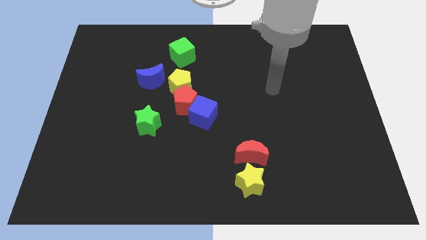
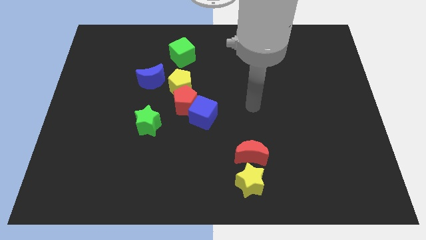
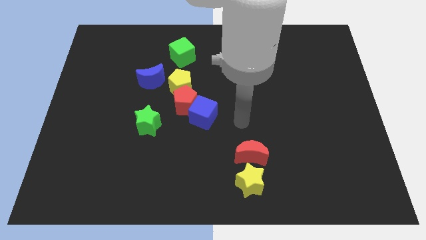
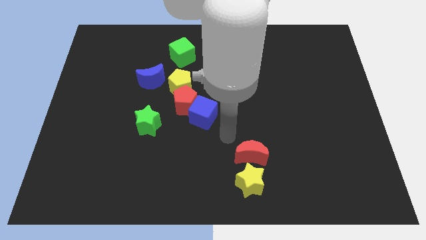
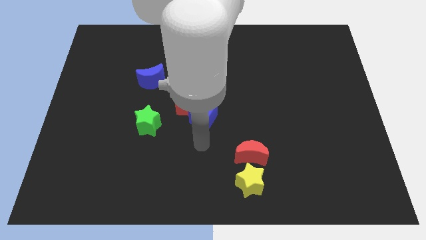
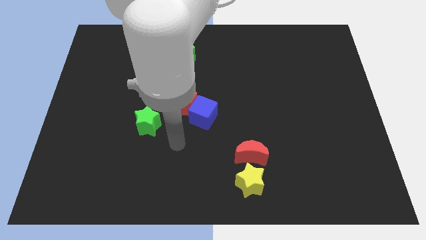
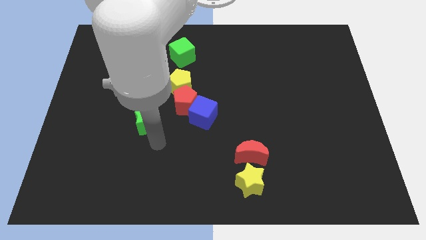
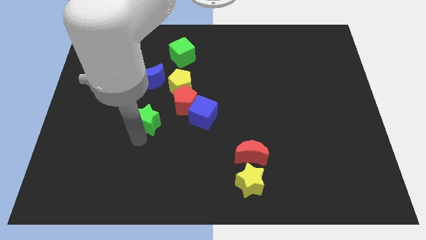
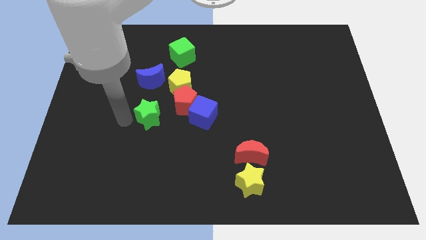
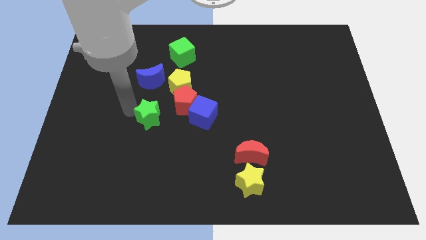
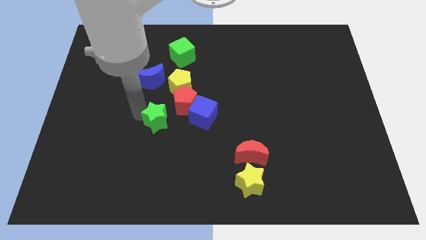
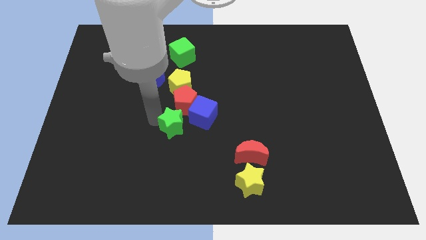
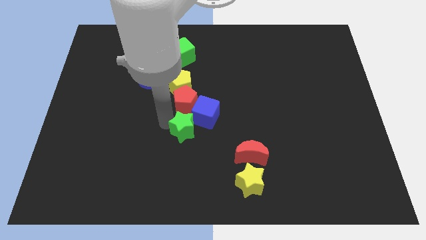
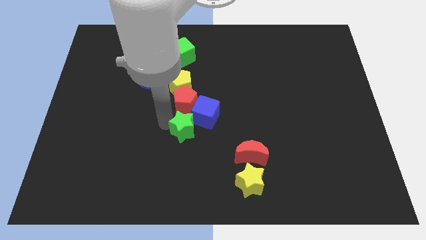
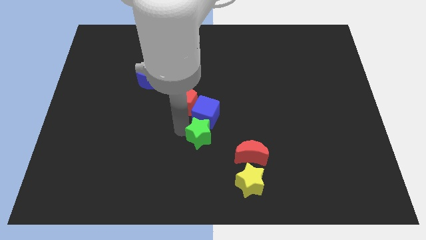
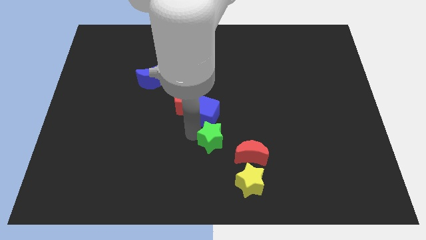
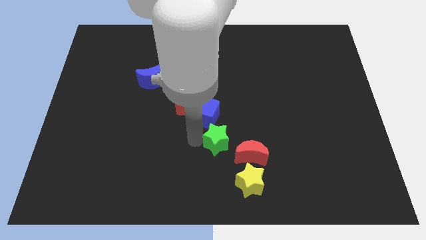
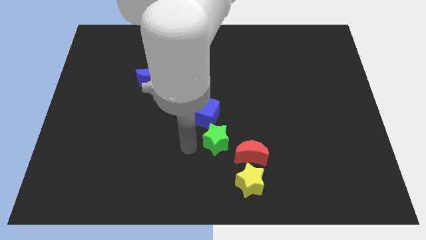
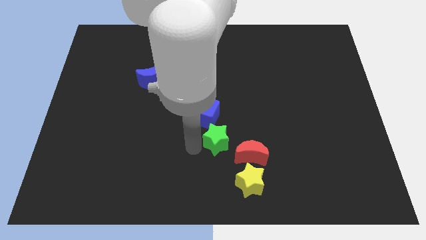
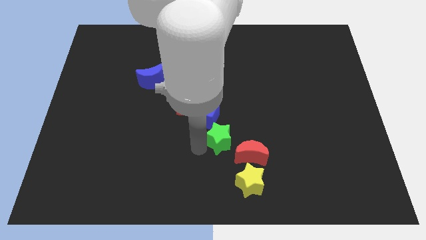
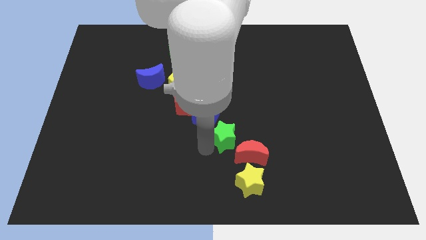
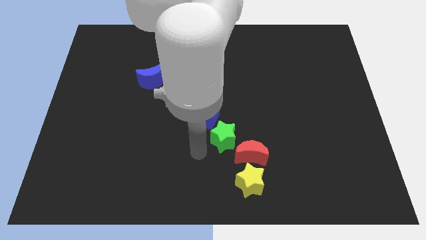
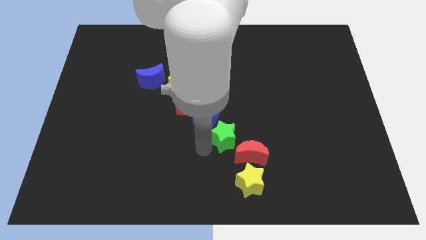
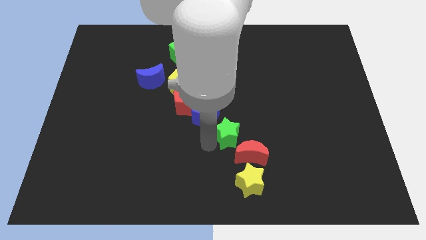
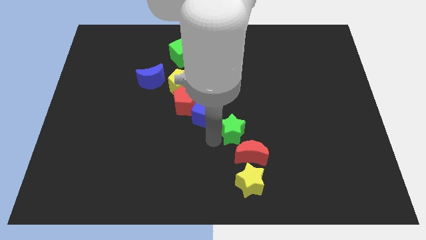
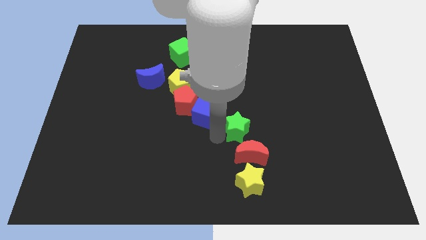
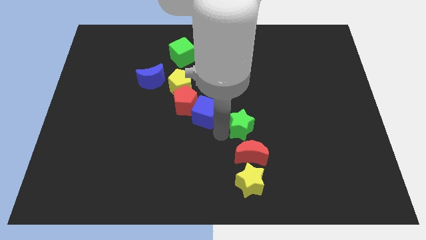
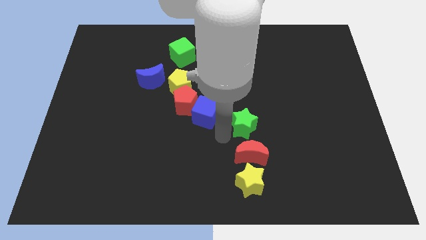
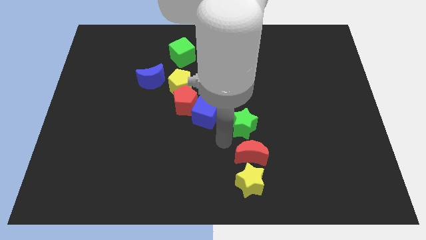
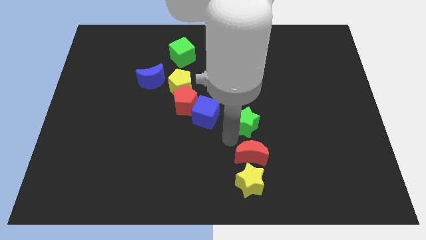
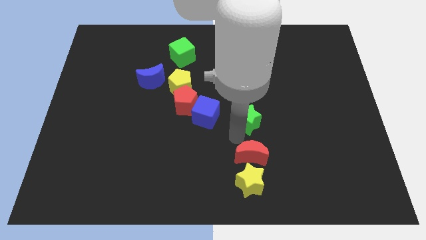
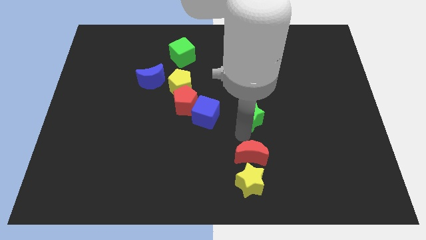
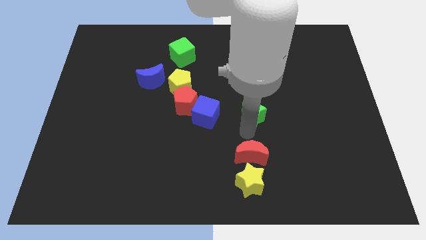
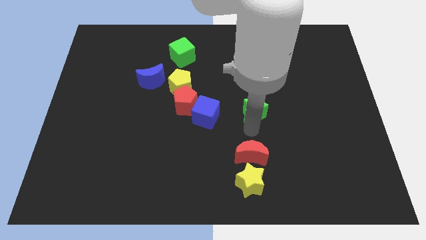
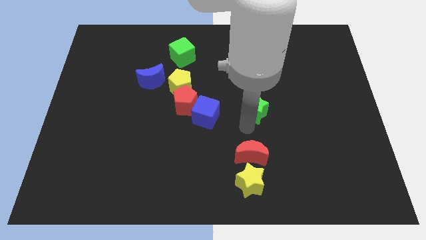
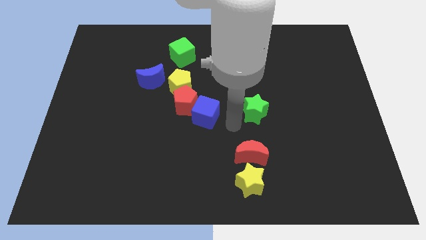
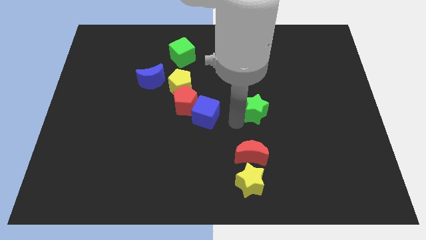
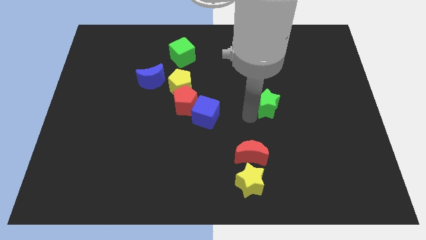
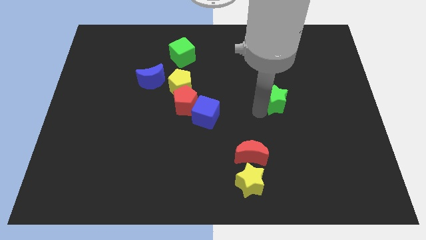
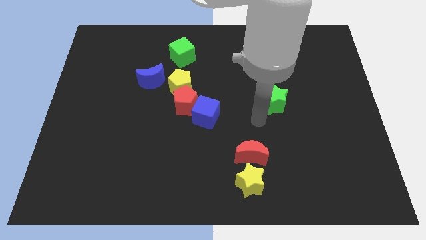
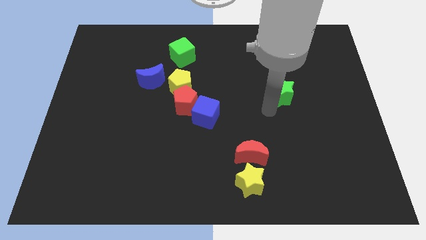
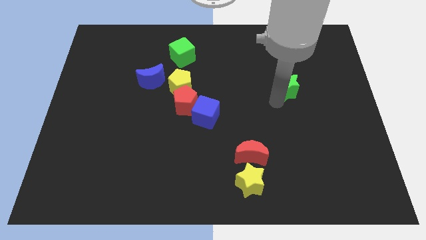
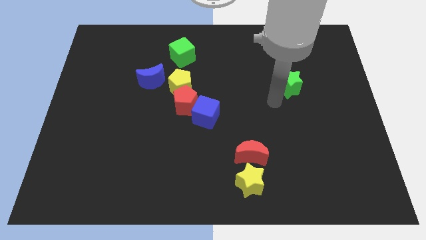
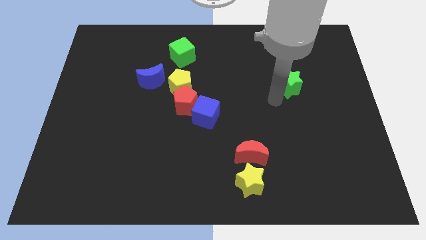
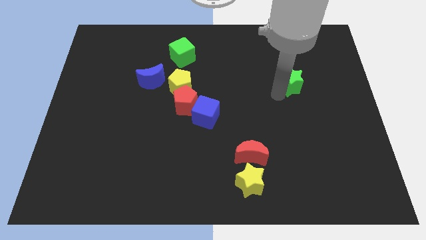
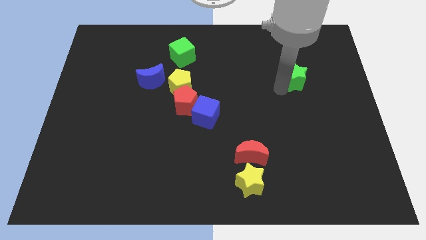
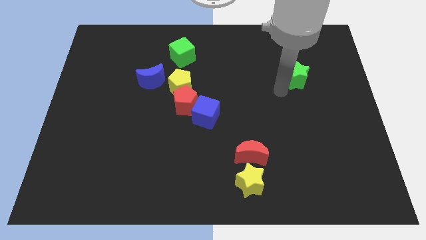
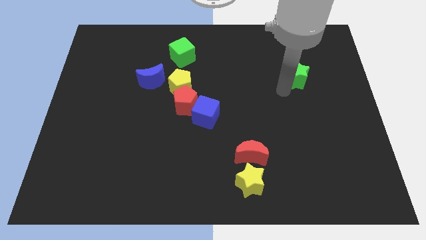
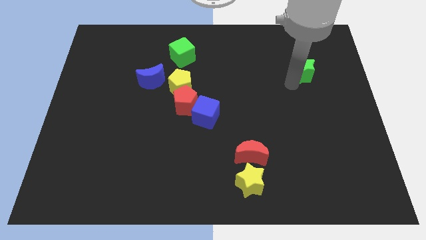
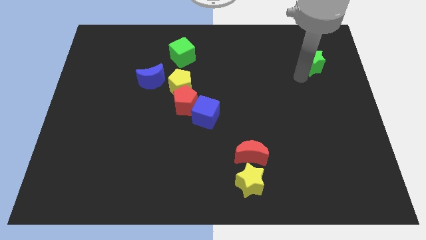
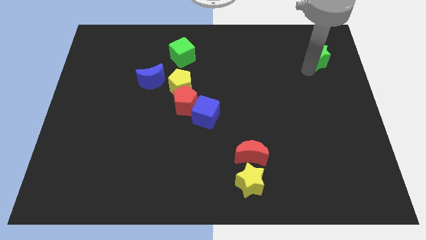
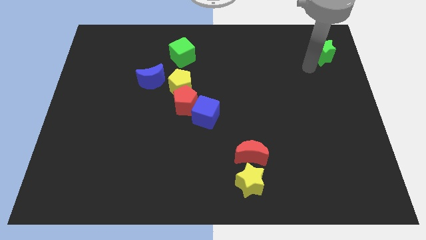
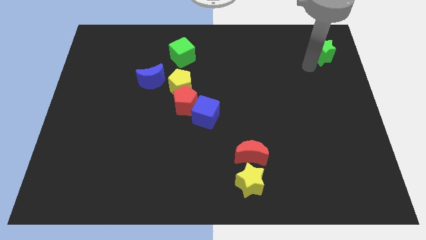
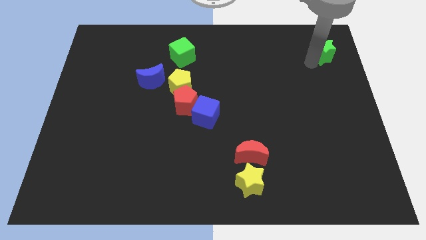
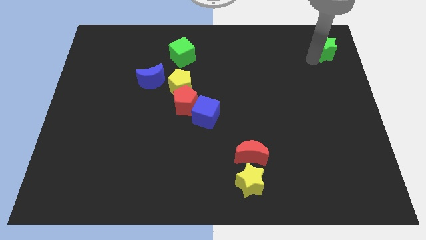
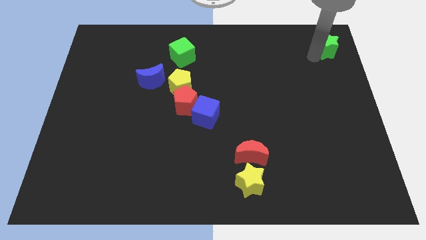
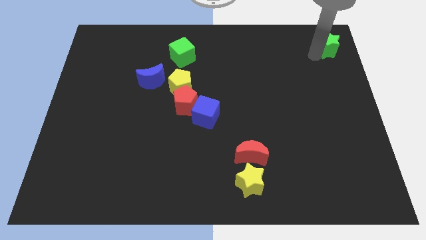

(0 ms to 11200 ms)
slide the green star to the top right corner

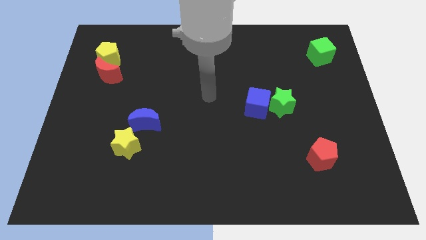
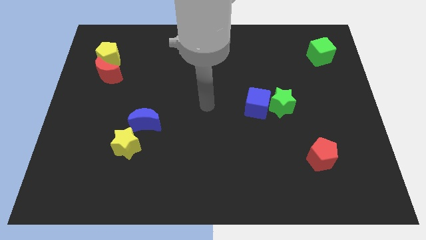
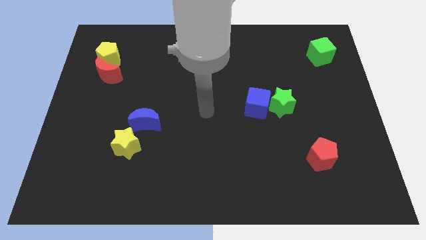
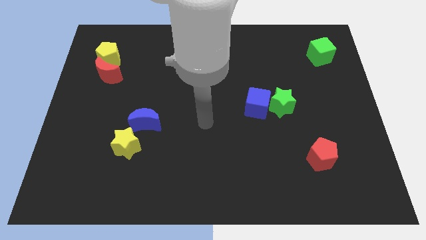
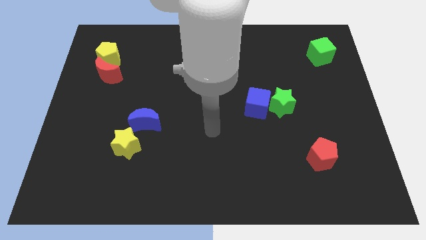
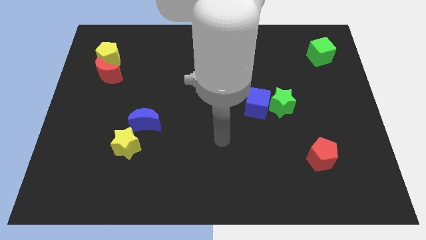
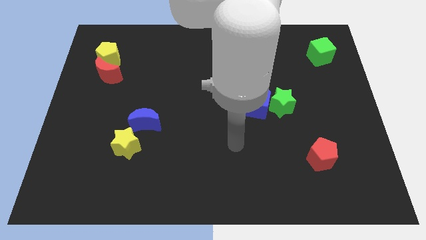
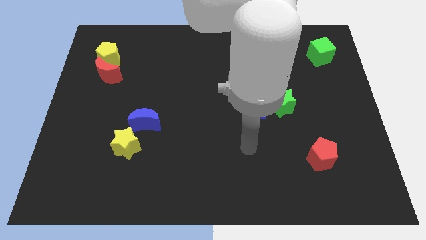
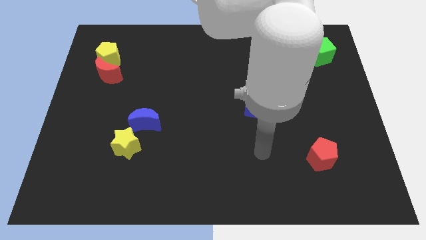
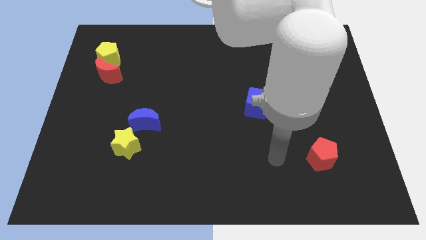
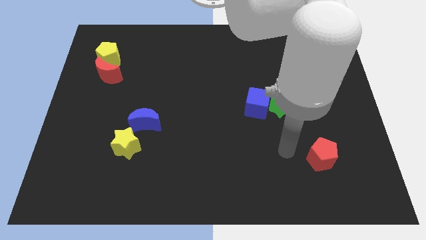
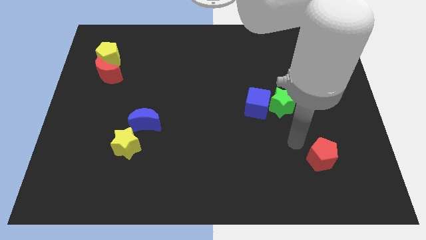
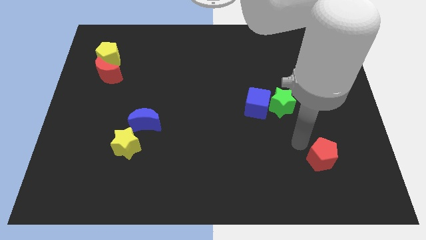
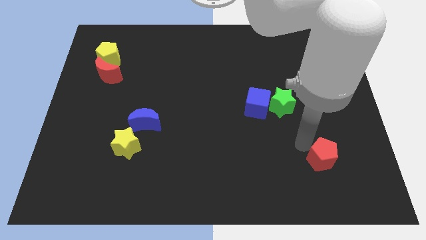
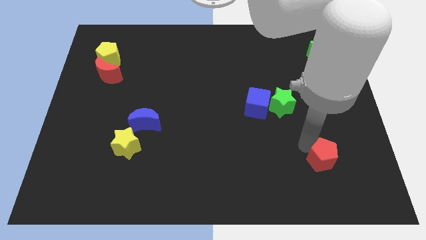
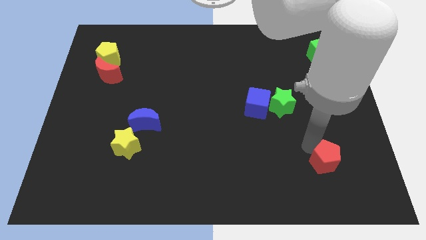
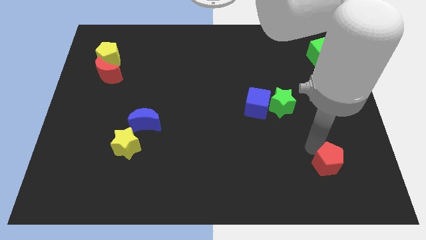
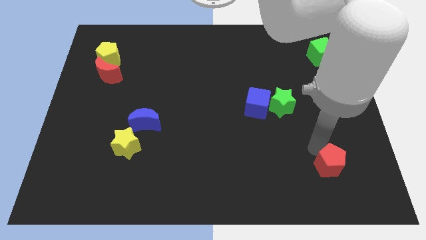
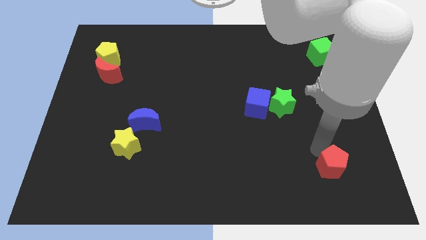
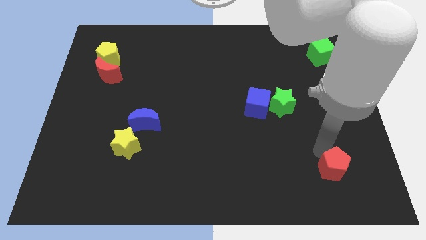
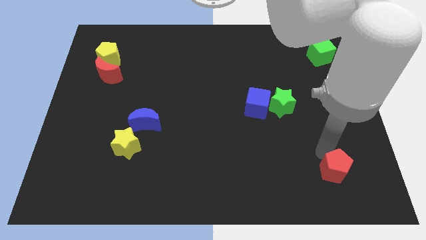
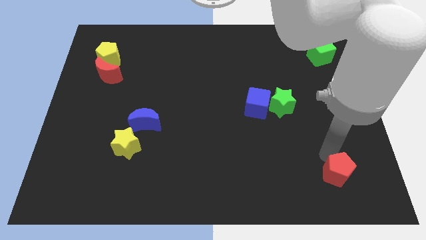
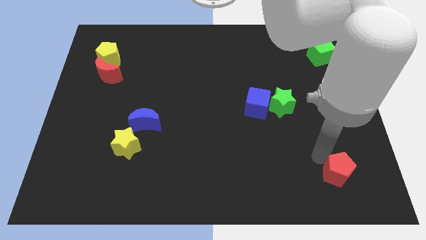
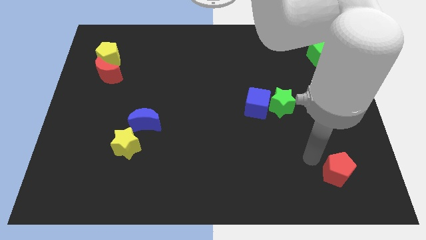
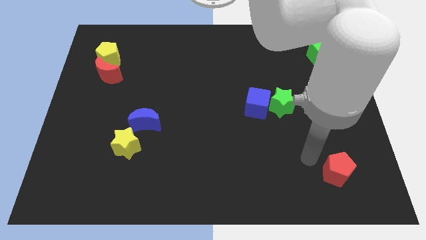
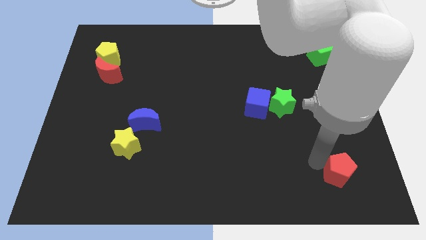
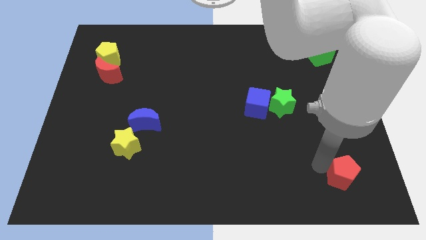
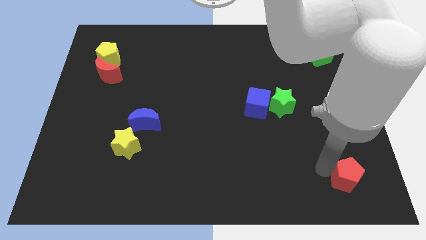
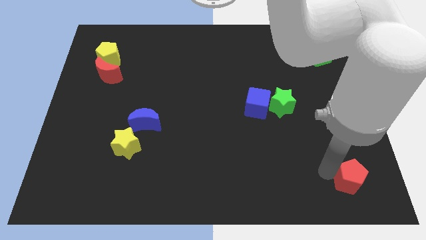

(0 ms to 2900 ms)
move the red pentagon to the bottom right
